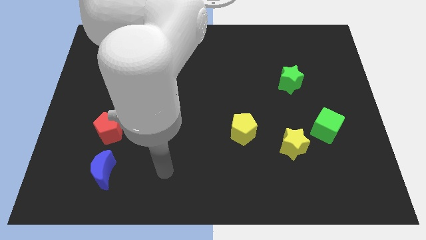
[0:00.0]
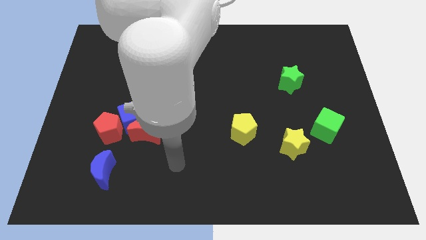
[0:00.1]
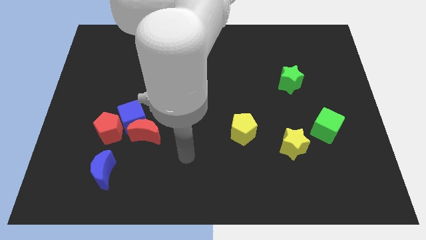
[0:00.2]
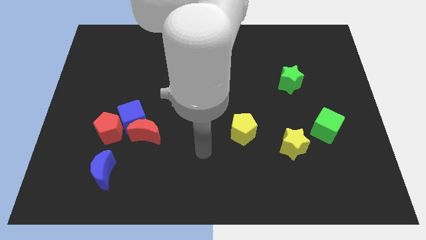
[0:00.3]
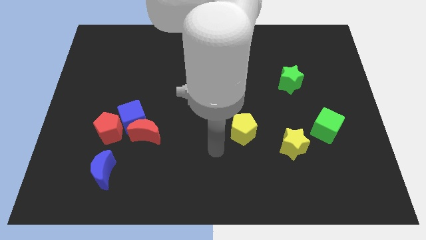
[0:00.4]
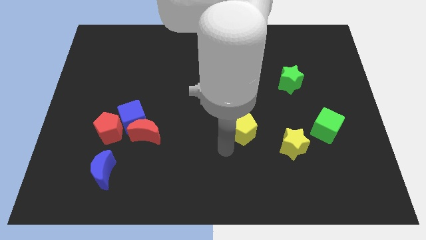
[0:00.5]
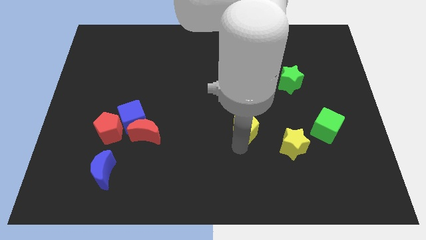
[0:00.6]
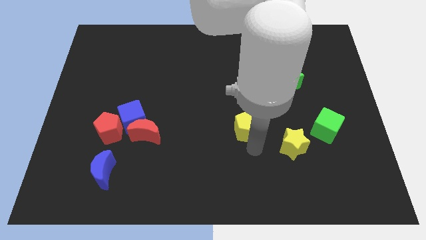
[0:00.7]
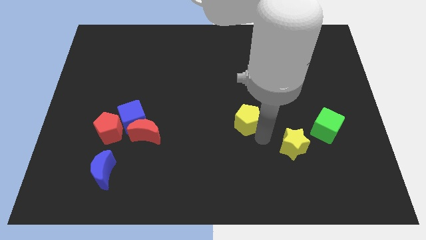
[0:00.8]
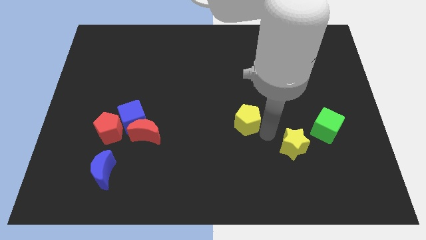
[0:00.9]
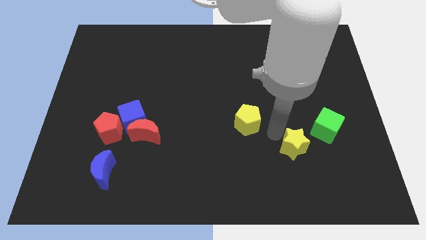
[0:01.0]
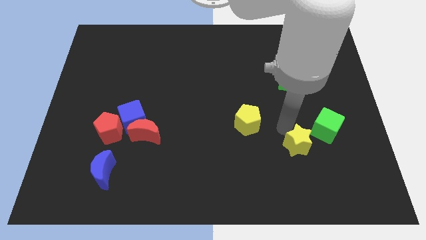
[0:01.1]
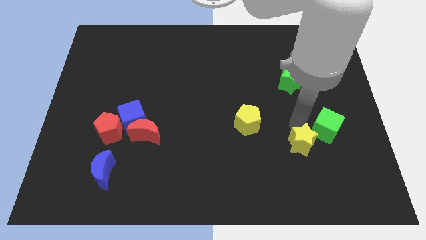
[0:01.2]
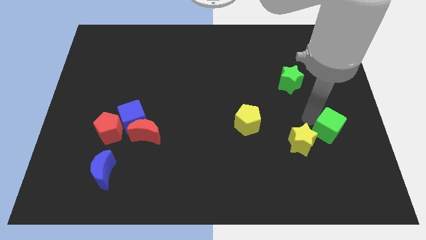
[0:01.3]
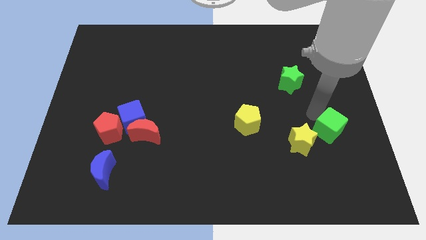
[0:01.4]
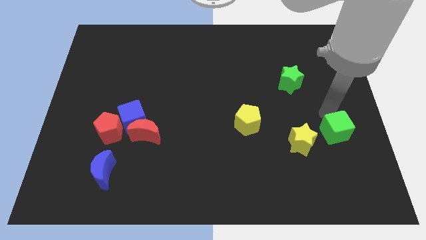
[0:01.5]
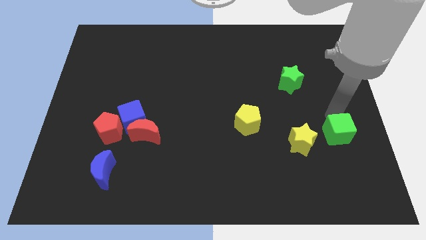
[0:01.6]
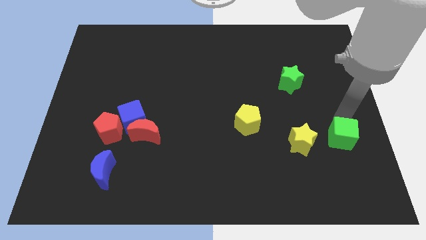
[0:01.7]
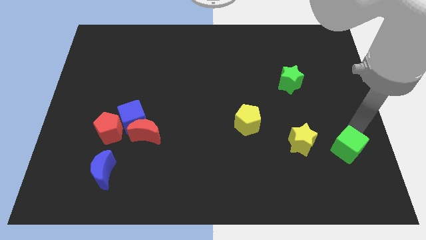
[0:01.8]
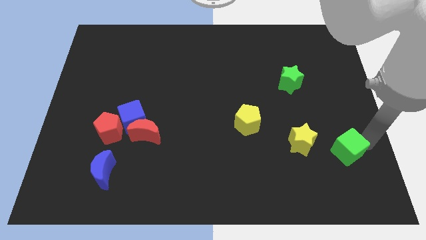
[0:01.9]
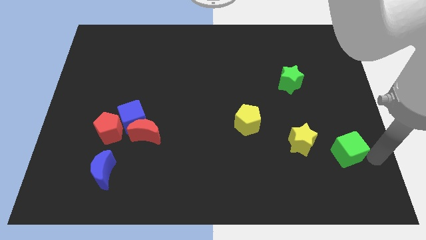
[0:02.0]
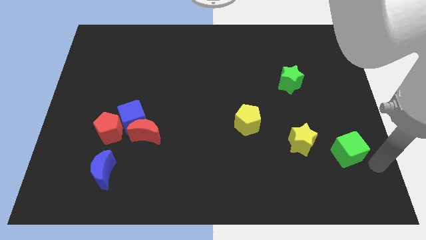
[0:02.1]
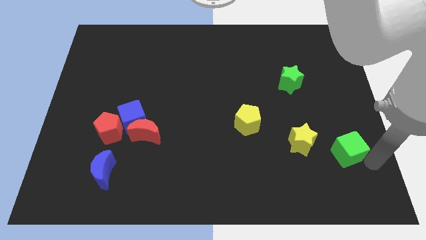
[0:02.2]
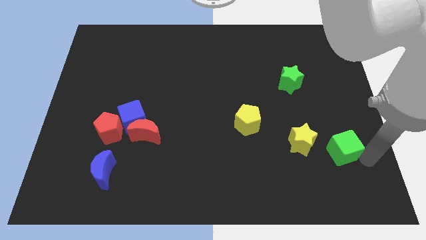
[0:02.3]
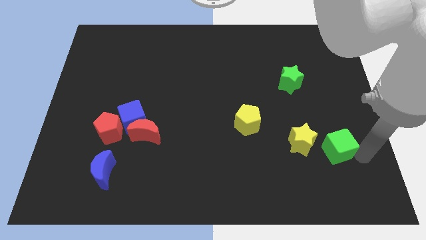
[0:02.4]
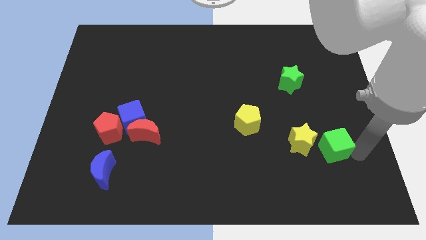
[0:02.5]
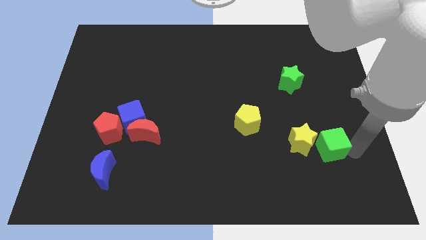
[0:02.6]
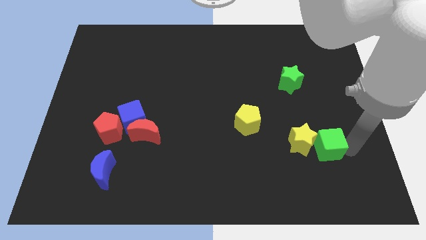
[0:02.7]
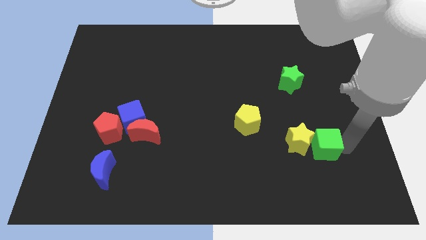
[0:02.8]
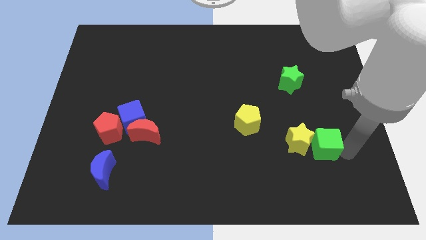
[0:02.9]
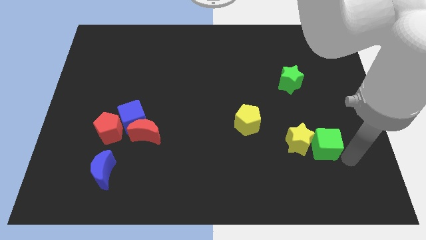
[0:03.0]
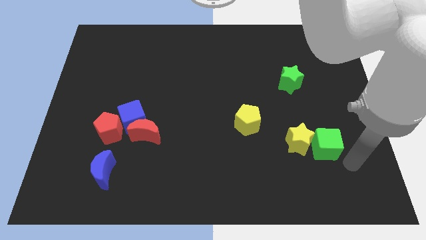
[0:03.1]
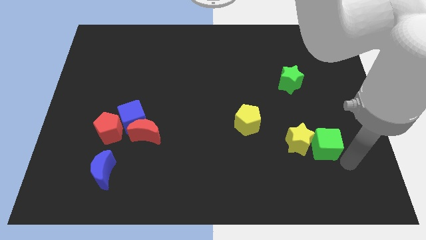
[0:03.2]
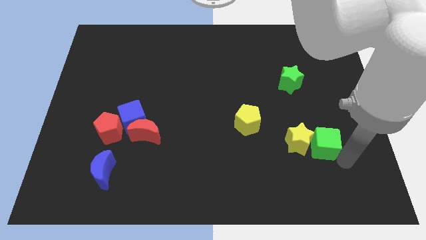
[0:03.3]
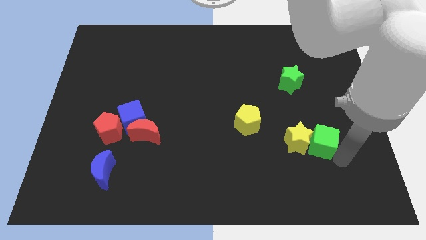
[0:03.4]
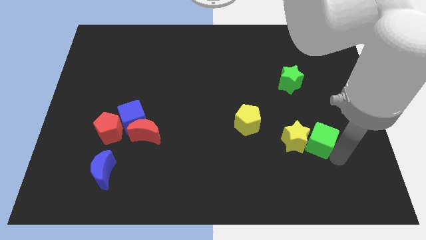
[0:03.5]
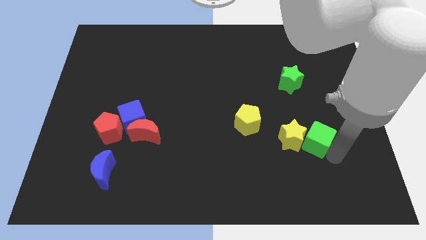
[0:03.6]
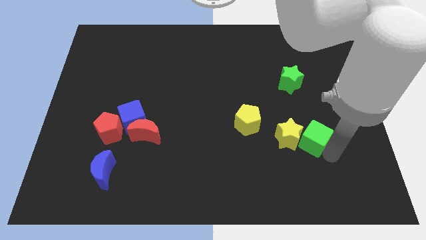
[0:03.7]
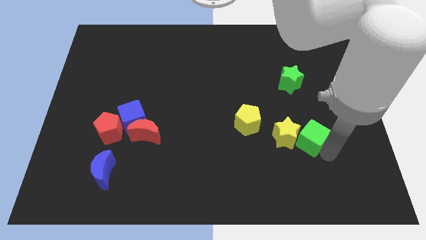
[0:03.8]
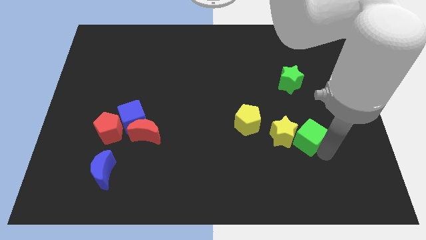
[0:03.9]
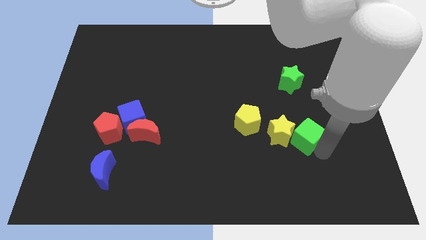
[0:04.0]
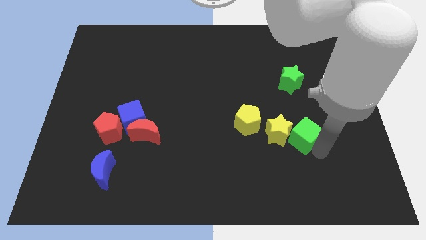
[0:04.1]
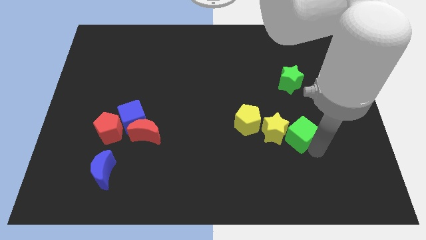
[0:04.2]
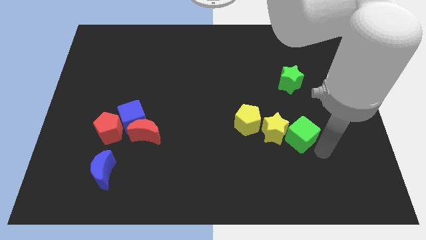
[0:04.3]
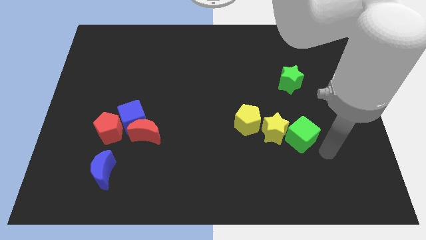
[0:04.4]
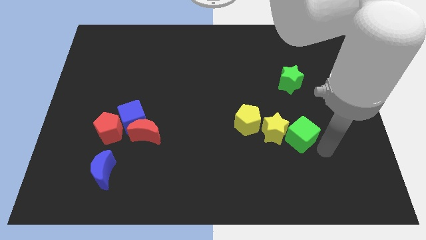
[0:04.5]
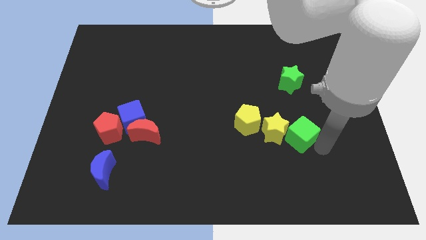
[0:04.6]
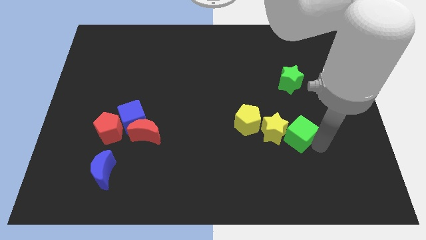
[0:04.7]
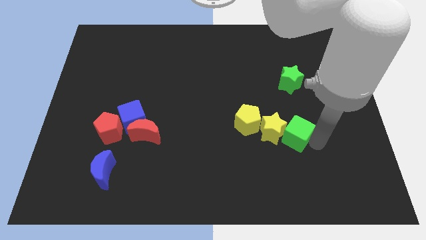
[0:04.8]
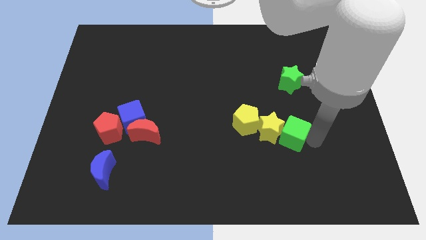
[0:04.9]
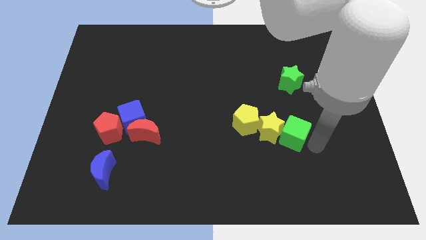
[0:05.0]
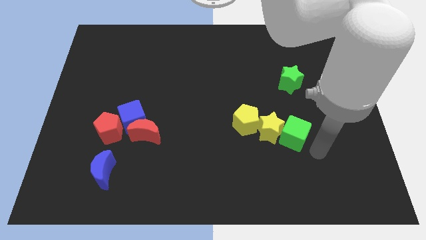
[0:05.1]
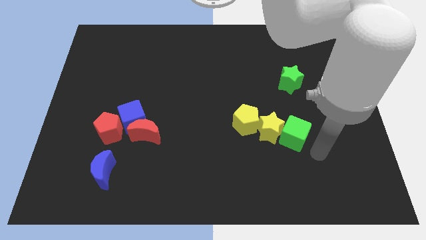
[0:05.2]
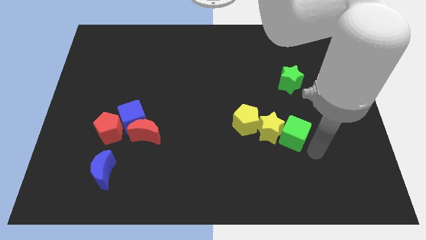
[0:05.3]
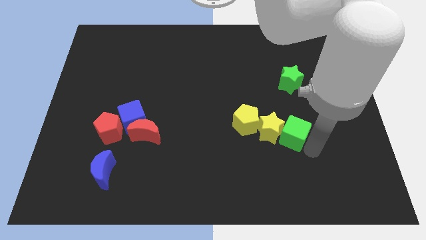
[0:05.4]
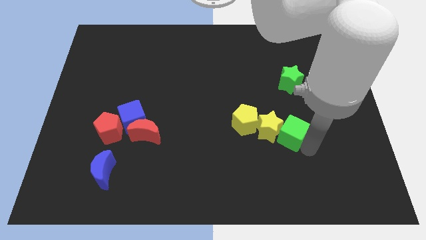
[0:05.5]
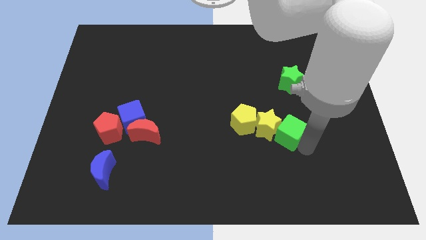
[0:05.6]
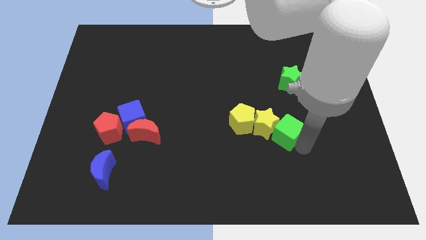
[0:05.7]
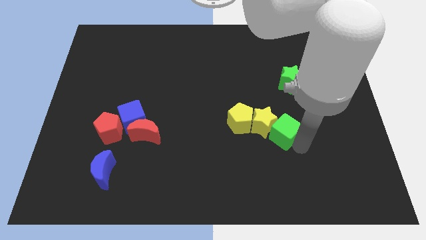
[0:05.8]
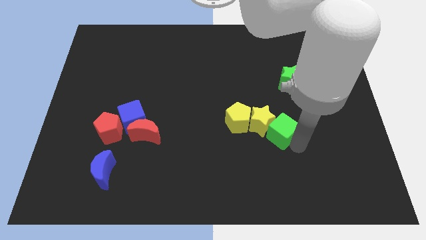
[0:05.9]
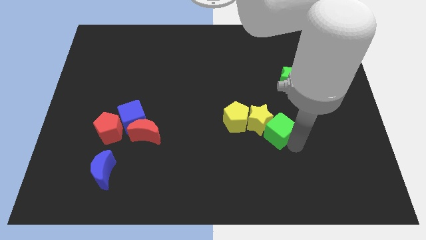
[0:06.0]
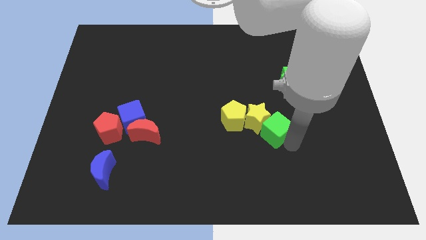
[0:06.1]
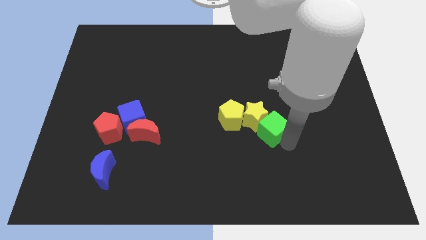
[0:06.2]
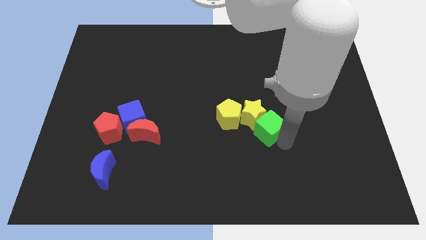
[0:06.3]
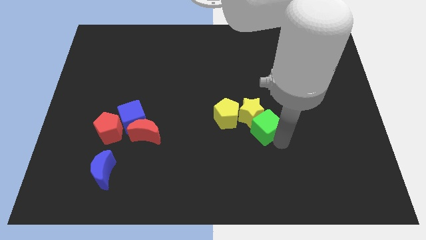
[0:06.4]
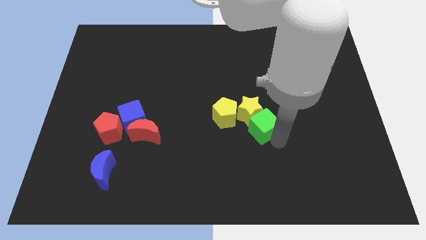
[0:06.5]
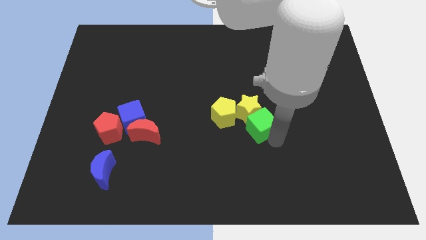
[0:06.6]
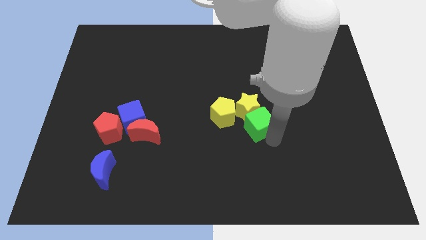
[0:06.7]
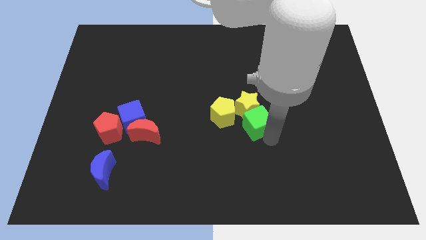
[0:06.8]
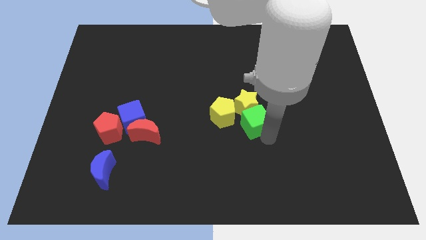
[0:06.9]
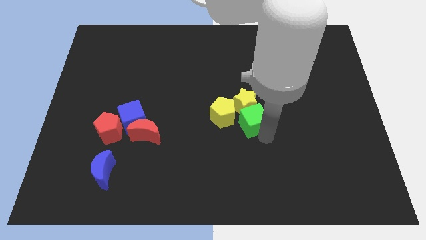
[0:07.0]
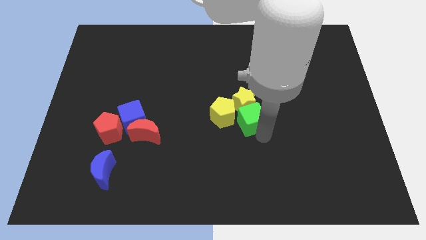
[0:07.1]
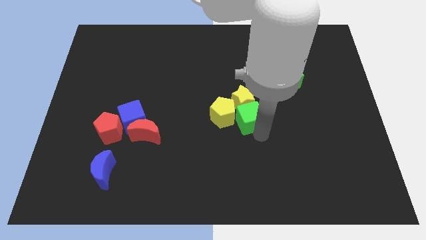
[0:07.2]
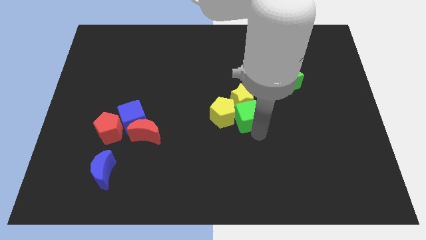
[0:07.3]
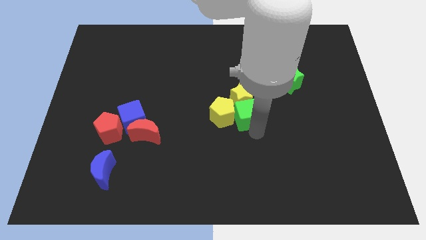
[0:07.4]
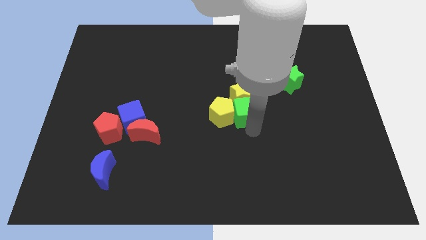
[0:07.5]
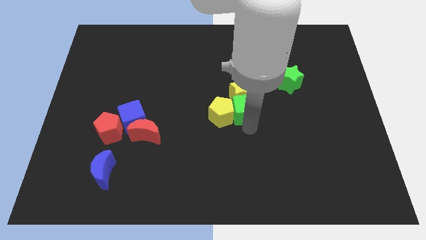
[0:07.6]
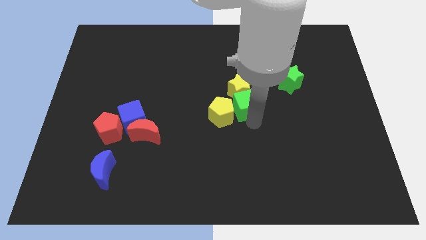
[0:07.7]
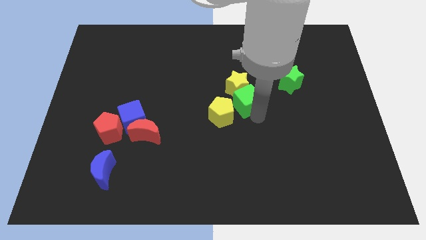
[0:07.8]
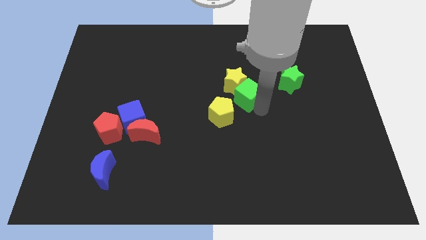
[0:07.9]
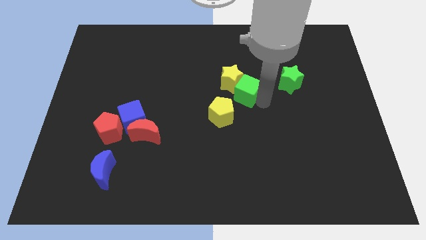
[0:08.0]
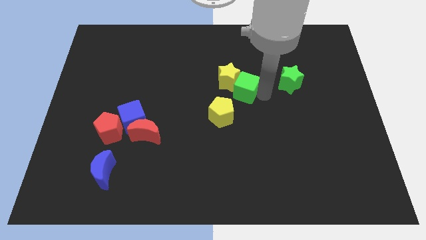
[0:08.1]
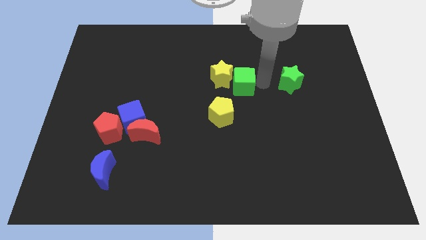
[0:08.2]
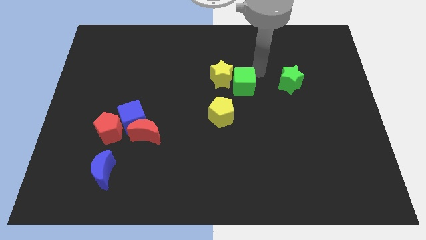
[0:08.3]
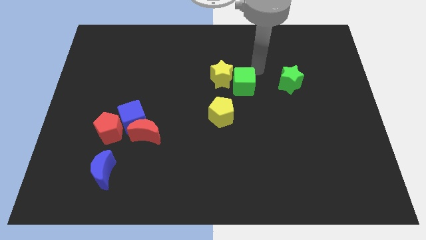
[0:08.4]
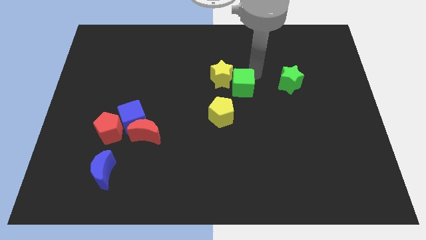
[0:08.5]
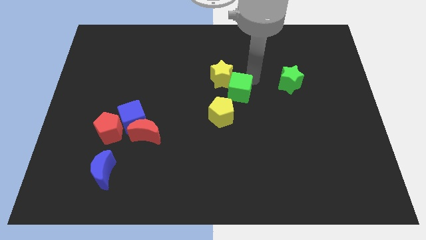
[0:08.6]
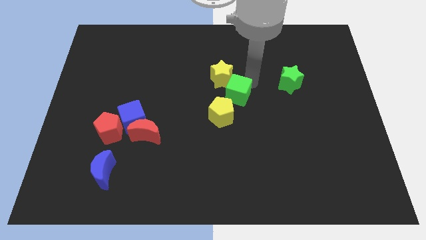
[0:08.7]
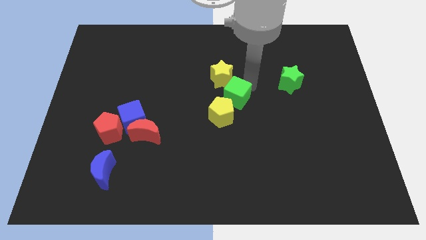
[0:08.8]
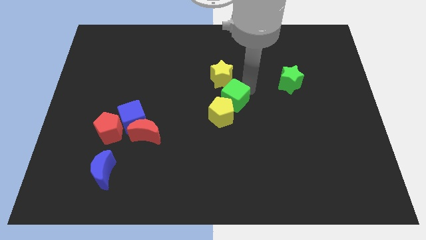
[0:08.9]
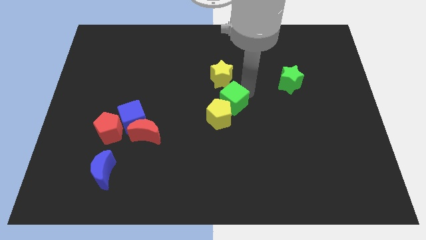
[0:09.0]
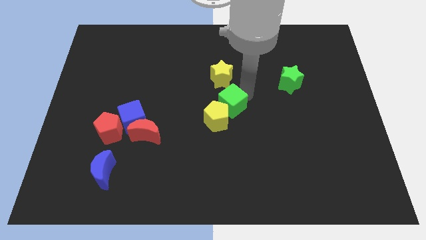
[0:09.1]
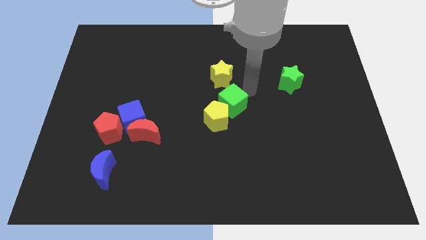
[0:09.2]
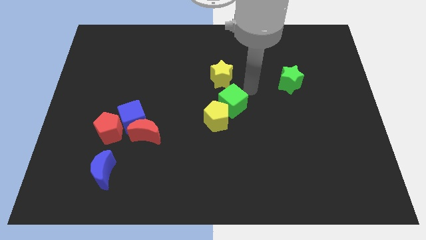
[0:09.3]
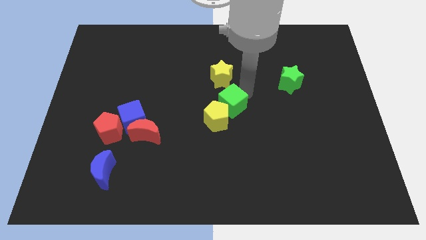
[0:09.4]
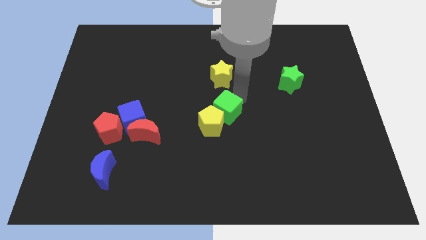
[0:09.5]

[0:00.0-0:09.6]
slide the green cube to the left
